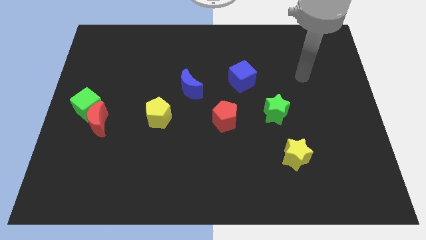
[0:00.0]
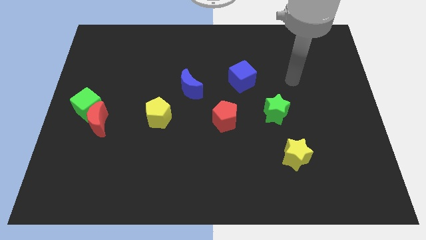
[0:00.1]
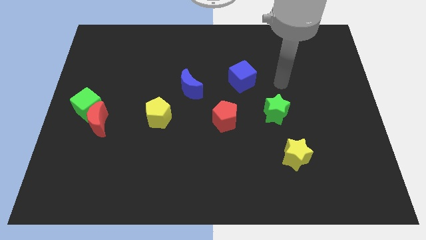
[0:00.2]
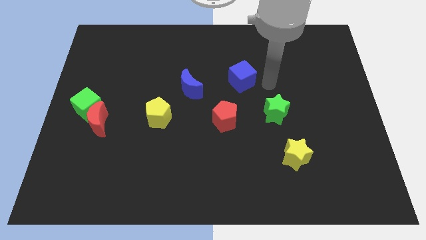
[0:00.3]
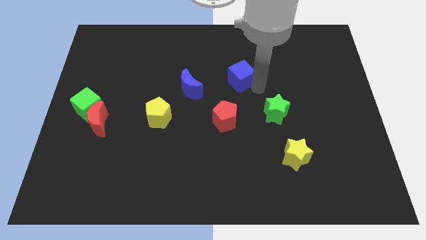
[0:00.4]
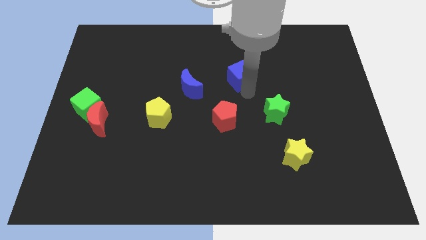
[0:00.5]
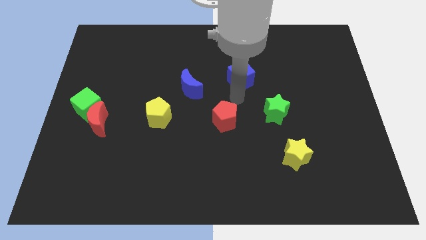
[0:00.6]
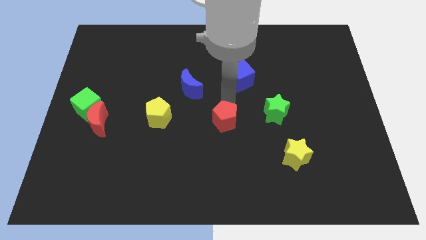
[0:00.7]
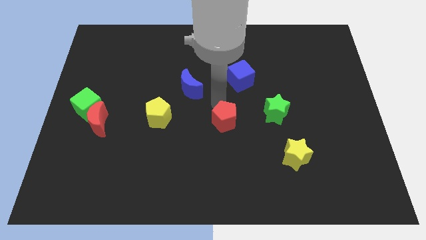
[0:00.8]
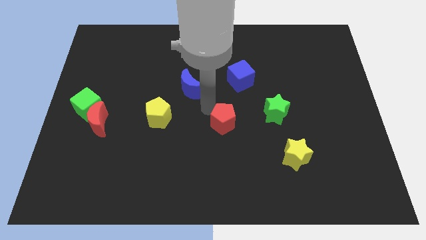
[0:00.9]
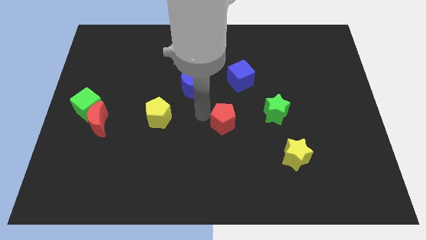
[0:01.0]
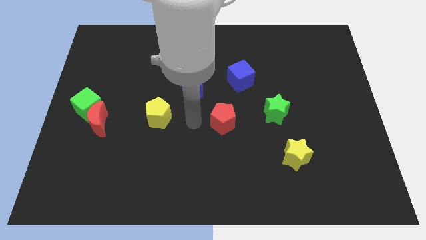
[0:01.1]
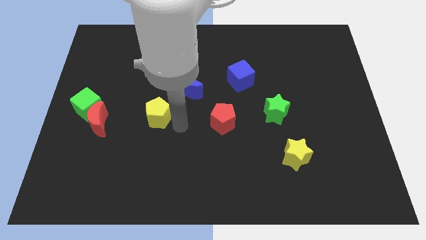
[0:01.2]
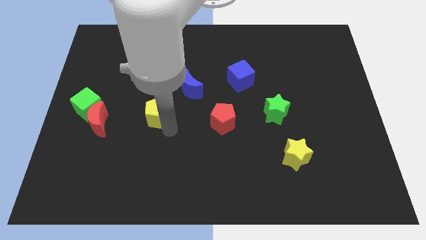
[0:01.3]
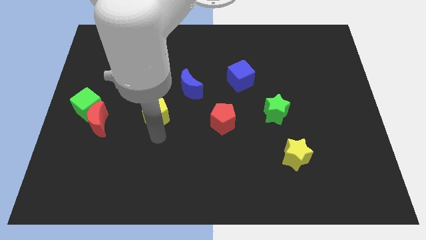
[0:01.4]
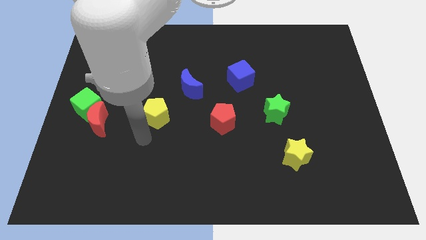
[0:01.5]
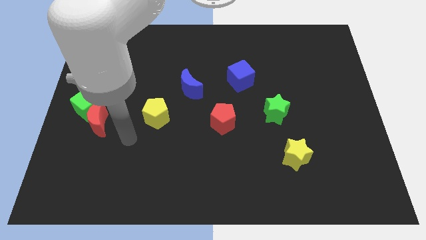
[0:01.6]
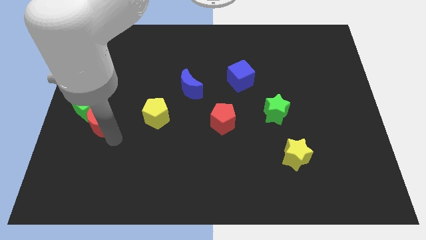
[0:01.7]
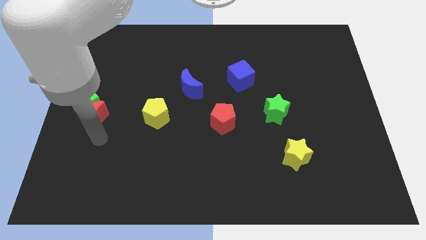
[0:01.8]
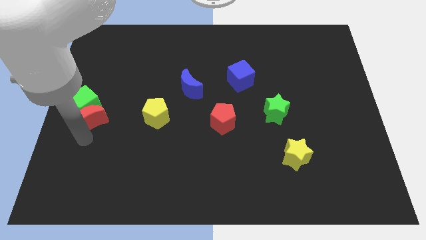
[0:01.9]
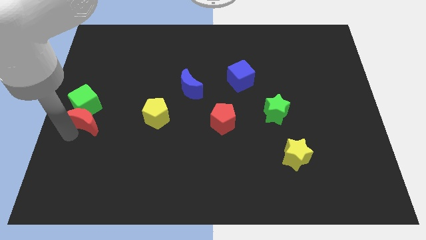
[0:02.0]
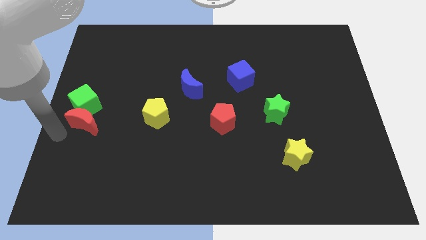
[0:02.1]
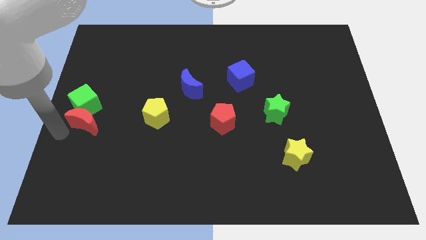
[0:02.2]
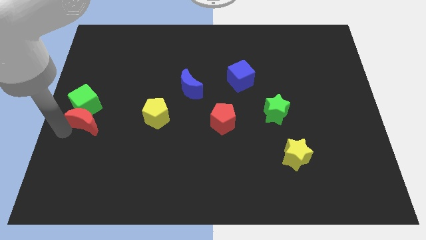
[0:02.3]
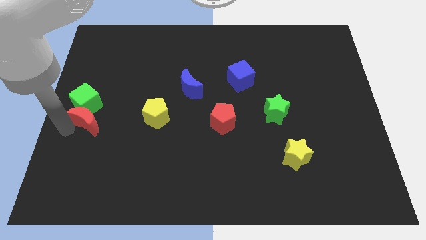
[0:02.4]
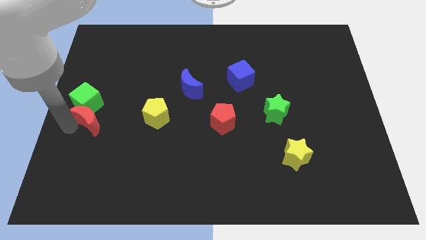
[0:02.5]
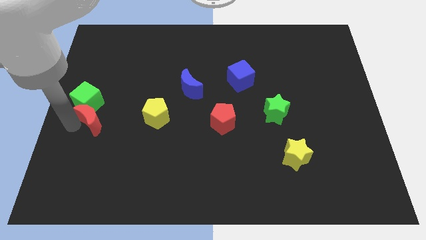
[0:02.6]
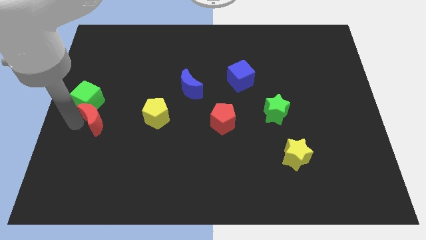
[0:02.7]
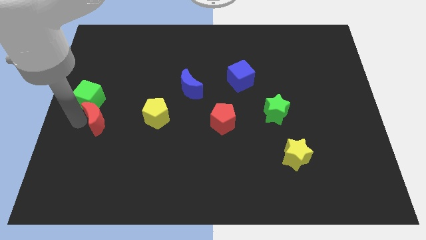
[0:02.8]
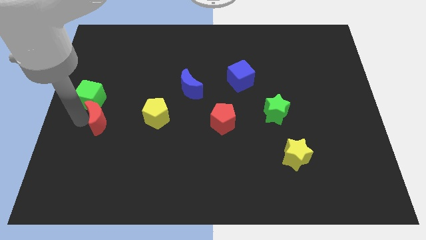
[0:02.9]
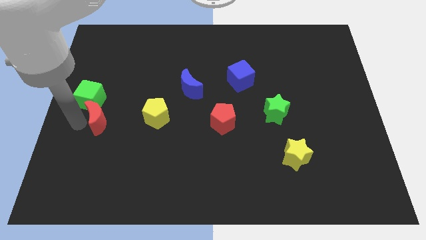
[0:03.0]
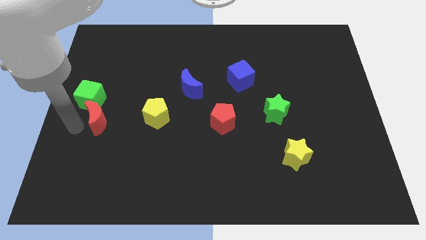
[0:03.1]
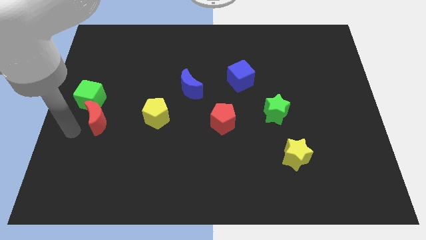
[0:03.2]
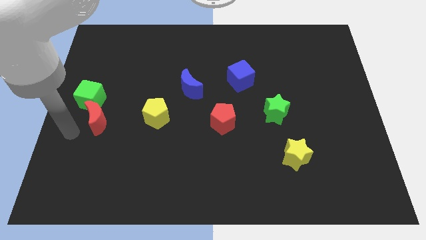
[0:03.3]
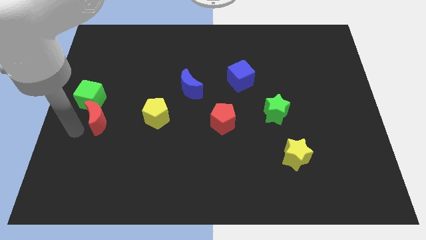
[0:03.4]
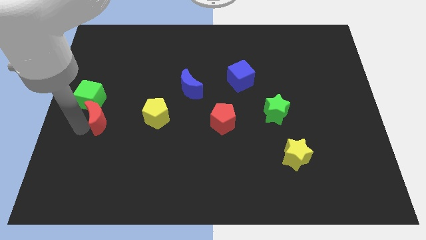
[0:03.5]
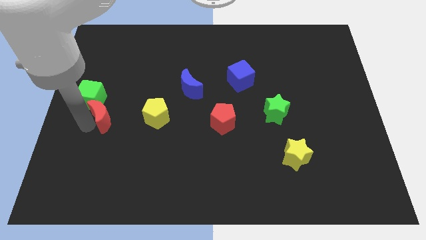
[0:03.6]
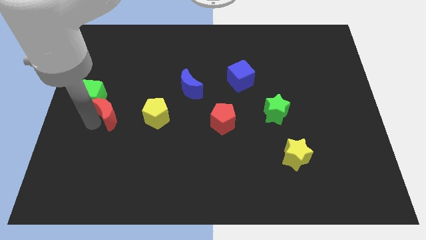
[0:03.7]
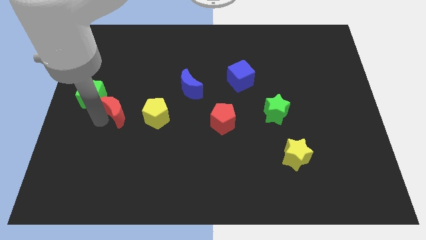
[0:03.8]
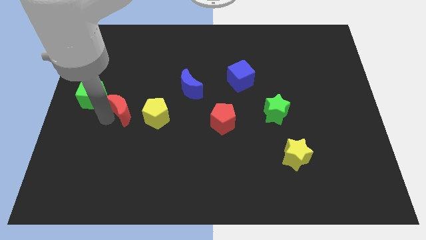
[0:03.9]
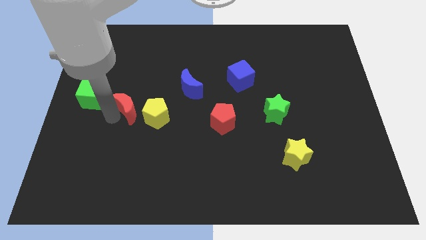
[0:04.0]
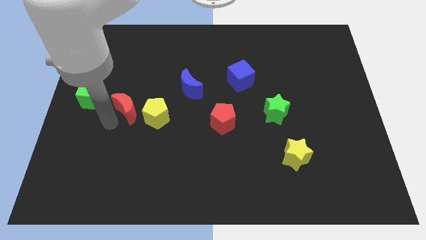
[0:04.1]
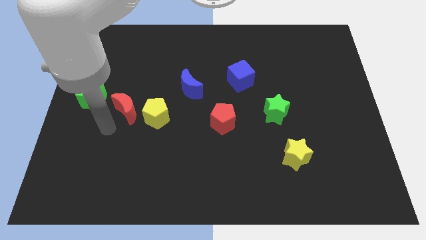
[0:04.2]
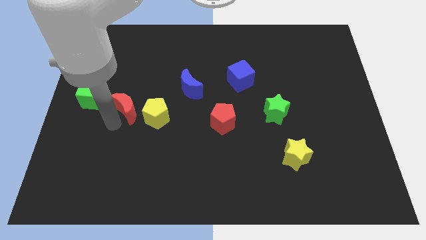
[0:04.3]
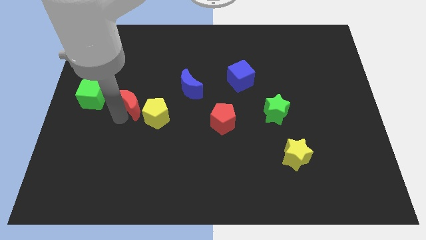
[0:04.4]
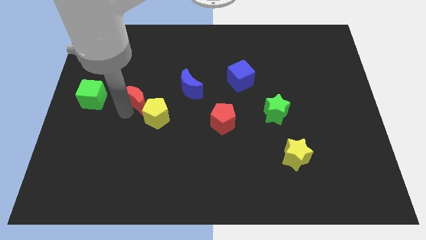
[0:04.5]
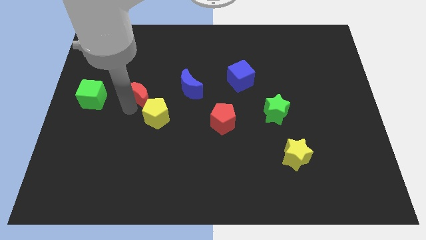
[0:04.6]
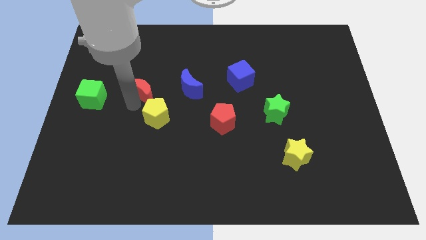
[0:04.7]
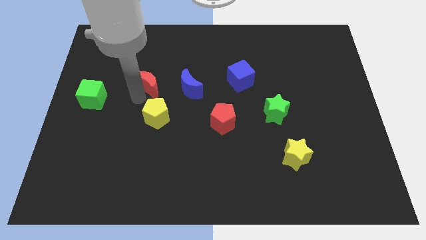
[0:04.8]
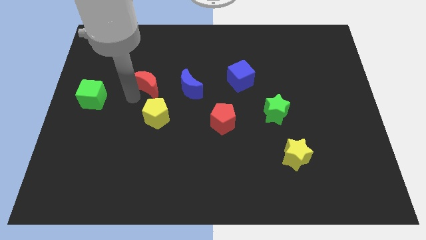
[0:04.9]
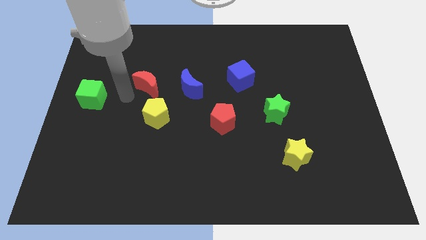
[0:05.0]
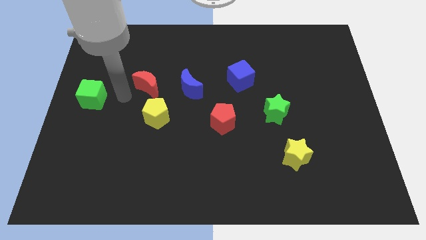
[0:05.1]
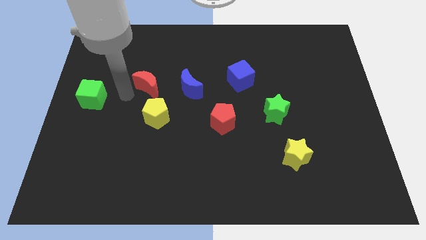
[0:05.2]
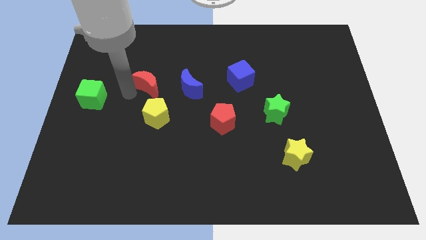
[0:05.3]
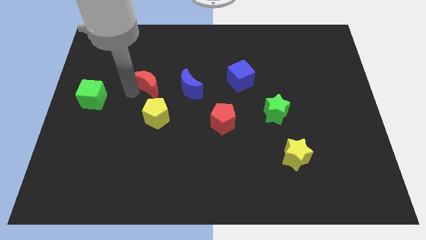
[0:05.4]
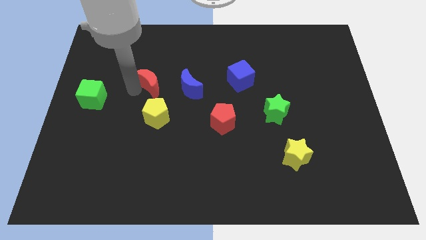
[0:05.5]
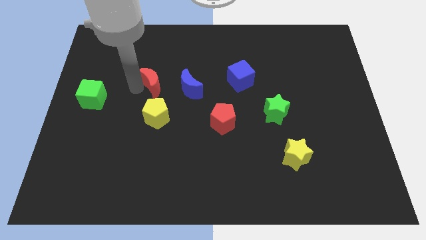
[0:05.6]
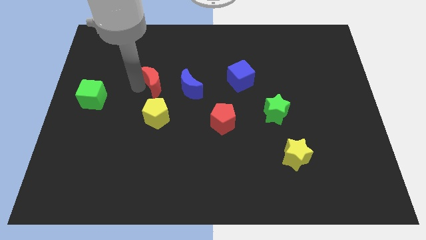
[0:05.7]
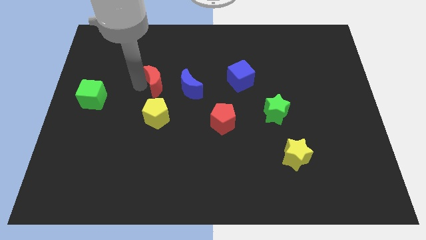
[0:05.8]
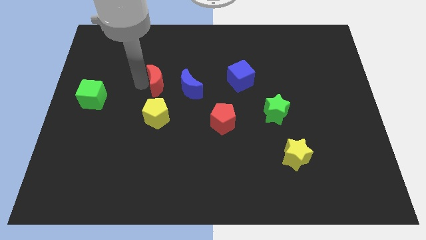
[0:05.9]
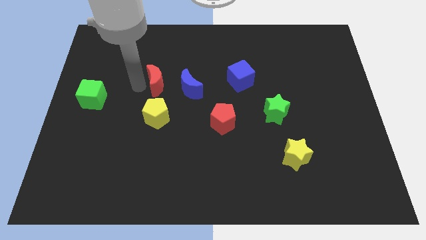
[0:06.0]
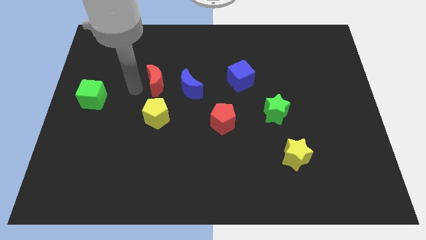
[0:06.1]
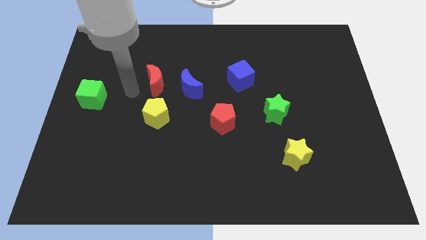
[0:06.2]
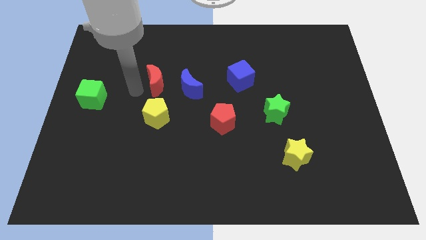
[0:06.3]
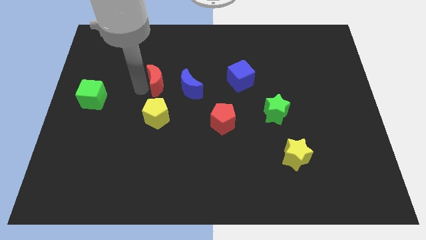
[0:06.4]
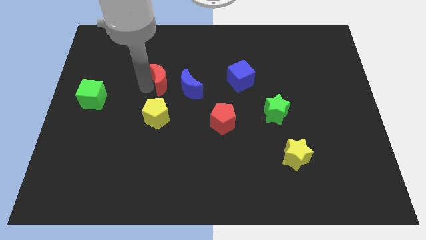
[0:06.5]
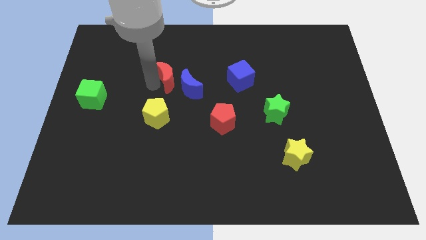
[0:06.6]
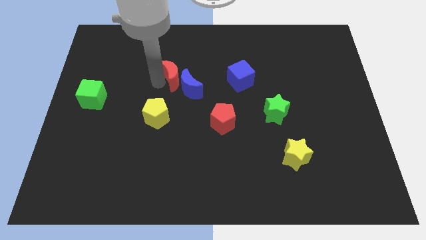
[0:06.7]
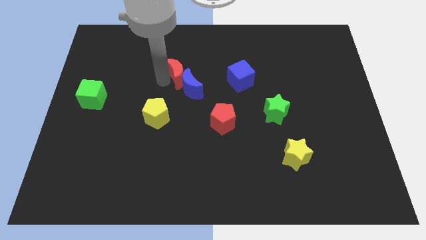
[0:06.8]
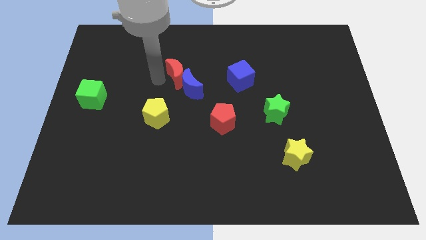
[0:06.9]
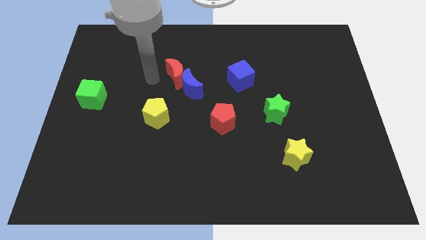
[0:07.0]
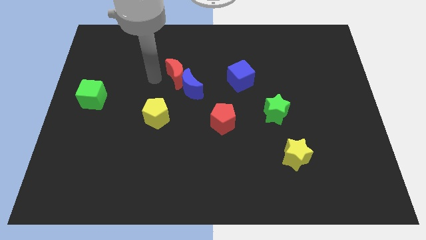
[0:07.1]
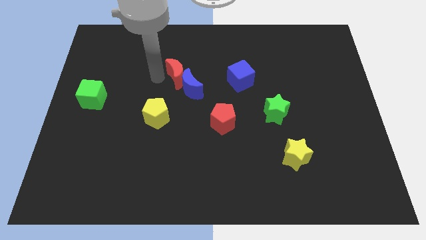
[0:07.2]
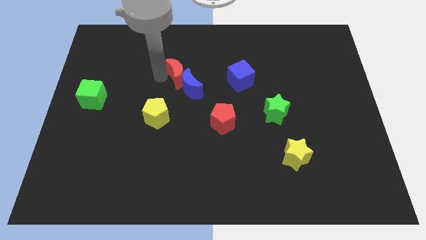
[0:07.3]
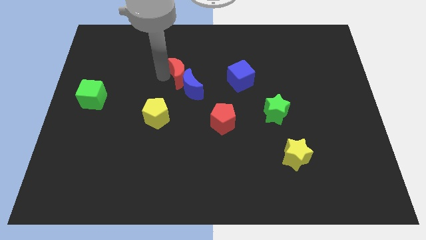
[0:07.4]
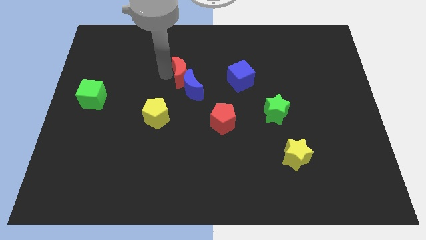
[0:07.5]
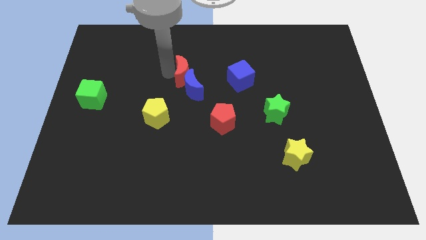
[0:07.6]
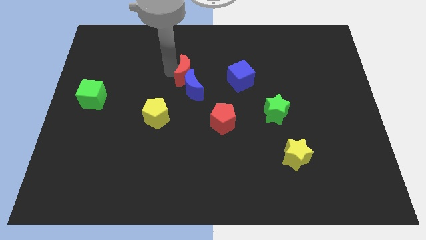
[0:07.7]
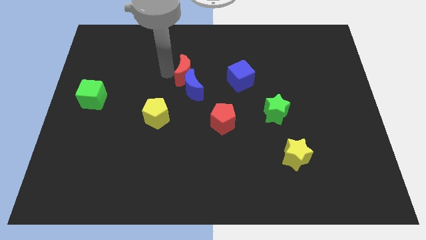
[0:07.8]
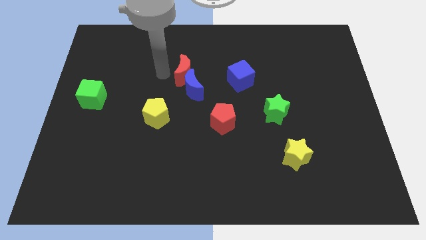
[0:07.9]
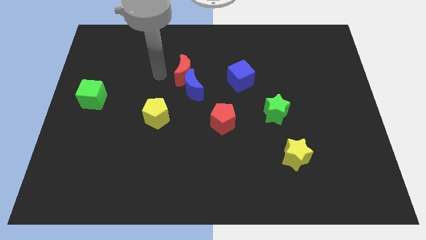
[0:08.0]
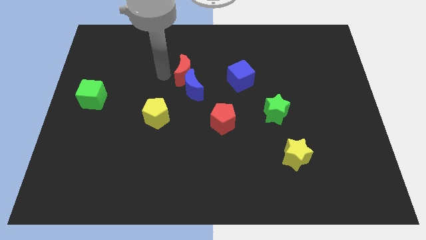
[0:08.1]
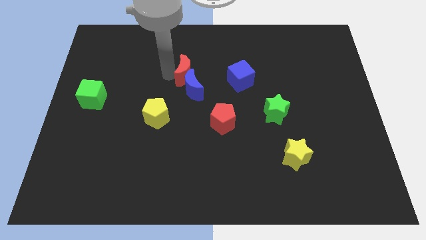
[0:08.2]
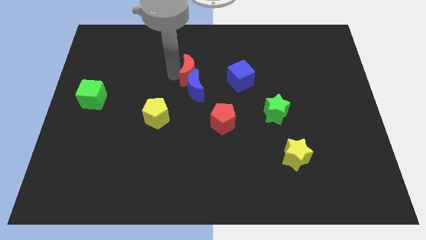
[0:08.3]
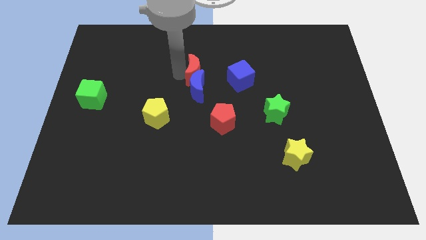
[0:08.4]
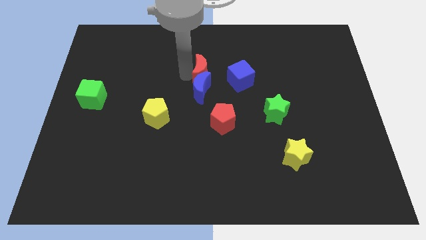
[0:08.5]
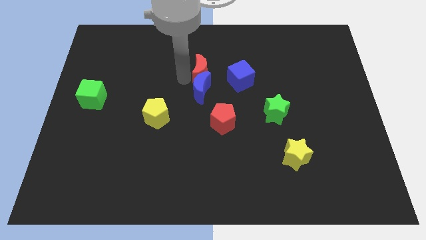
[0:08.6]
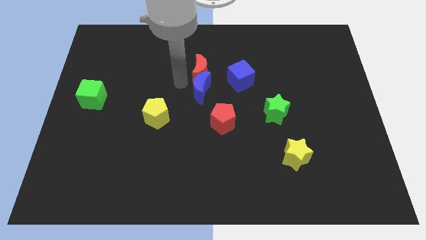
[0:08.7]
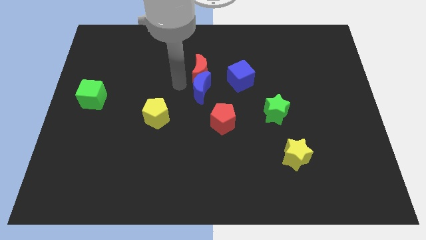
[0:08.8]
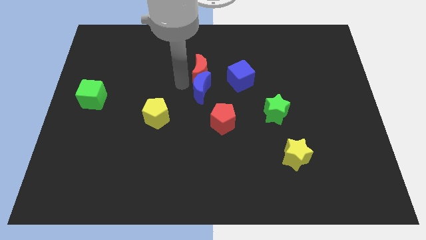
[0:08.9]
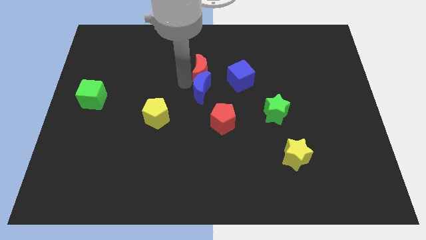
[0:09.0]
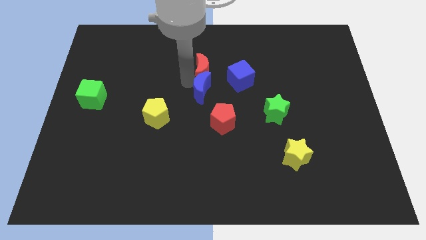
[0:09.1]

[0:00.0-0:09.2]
move the red moon diagonally up and to the left of the blue cube
